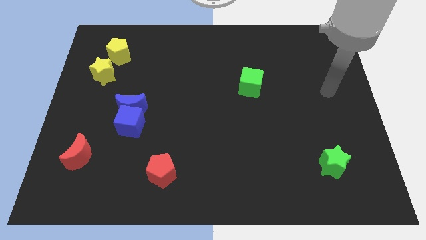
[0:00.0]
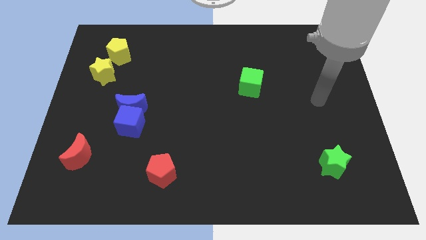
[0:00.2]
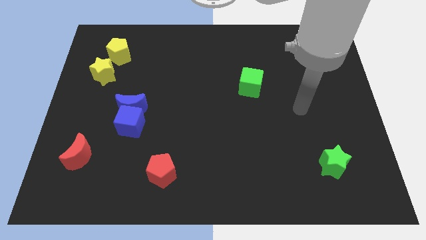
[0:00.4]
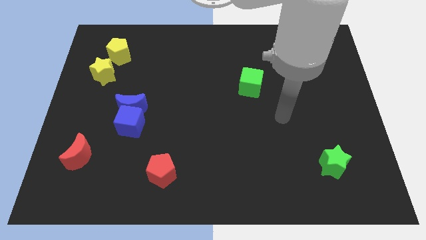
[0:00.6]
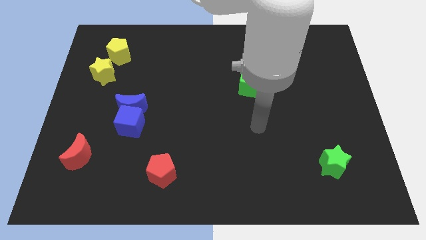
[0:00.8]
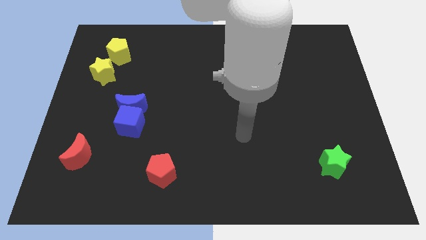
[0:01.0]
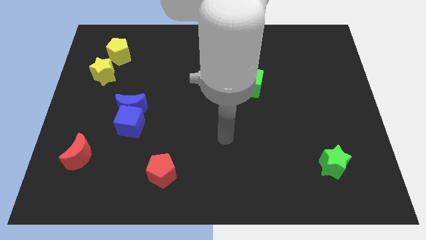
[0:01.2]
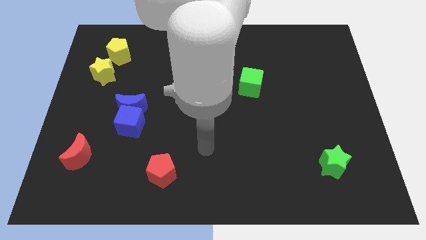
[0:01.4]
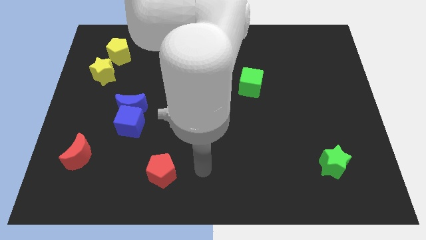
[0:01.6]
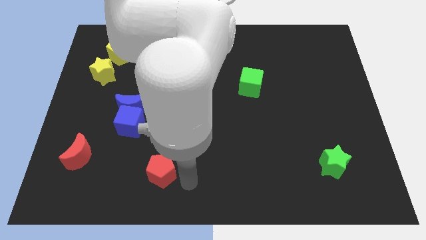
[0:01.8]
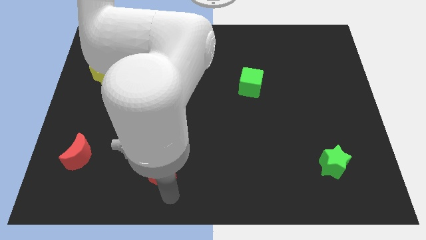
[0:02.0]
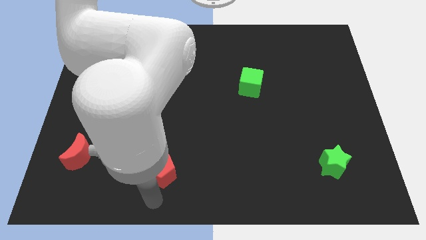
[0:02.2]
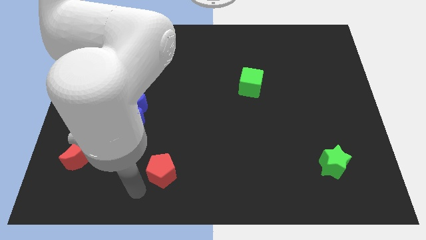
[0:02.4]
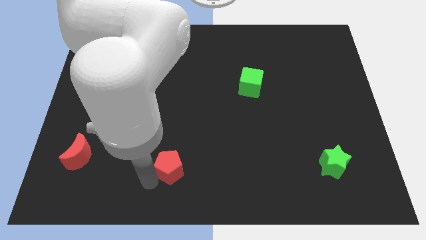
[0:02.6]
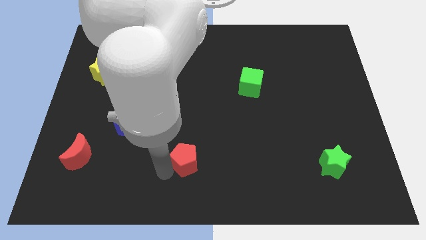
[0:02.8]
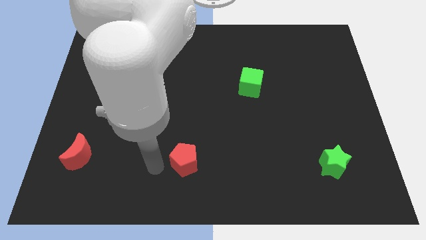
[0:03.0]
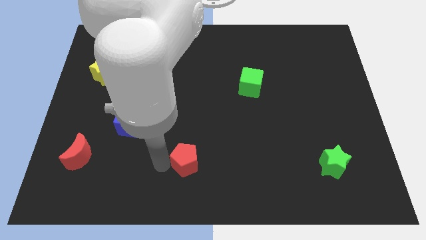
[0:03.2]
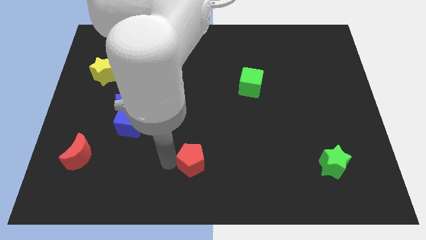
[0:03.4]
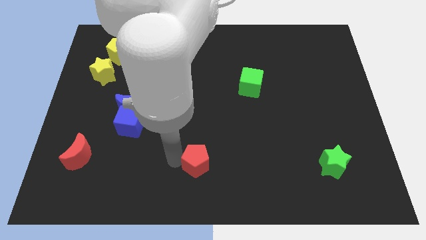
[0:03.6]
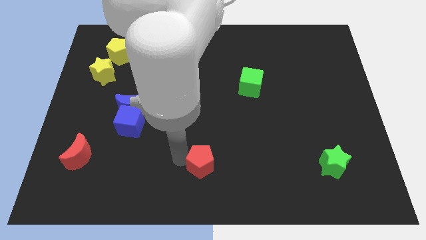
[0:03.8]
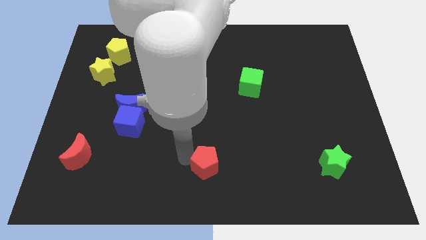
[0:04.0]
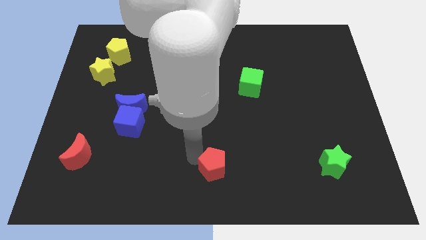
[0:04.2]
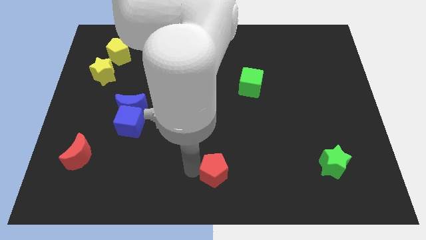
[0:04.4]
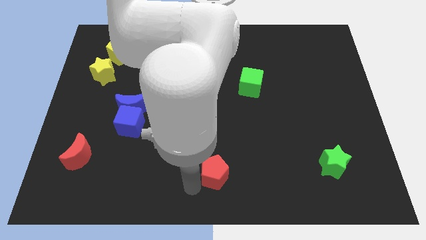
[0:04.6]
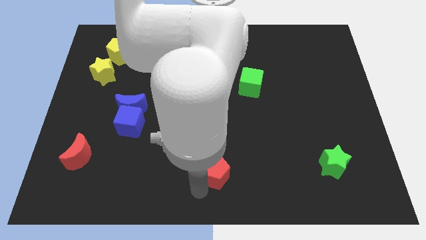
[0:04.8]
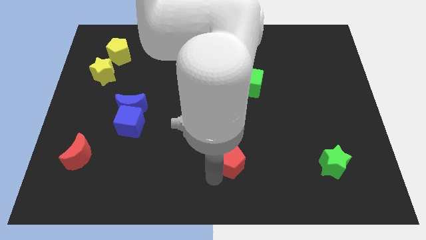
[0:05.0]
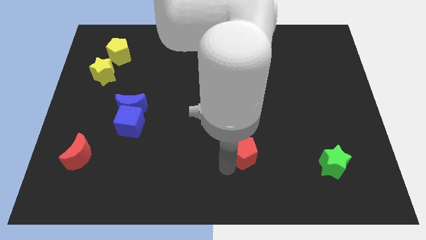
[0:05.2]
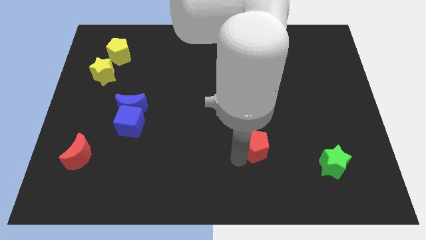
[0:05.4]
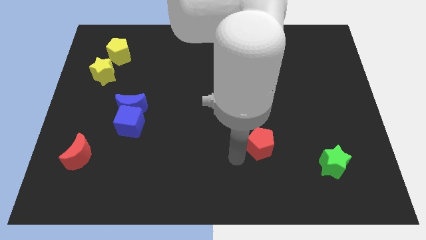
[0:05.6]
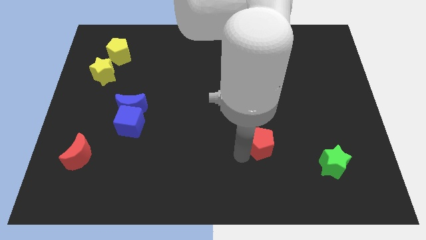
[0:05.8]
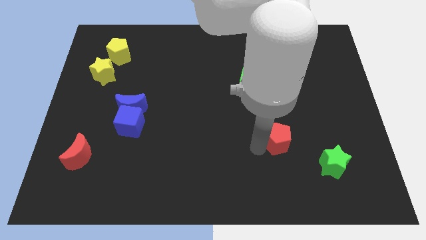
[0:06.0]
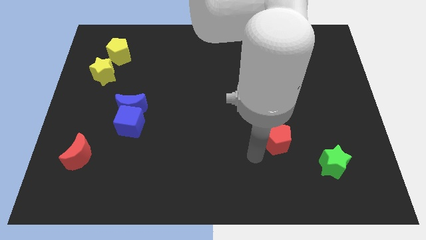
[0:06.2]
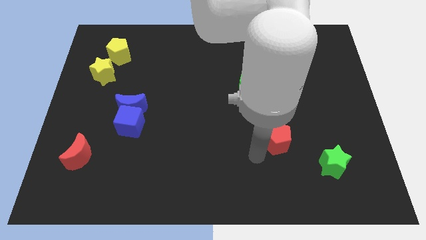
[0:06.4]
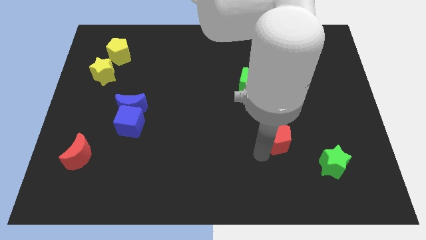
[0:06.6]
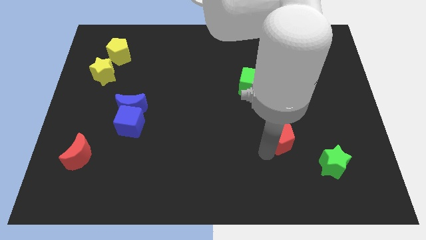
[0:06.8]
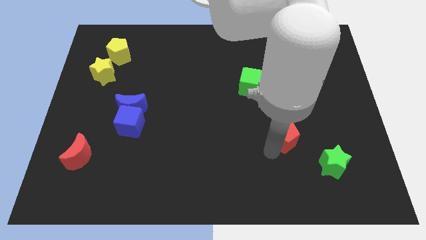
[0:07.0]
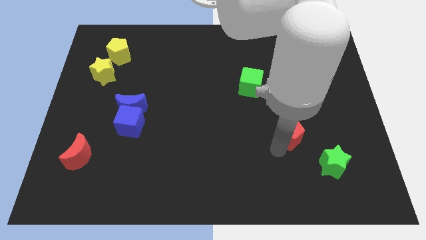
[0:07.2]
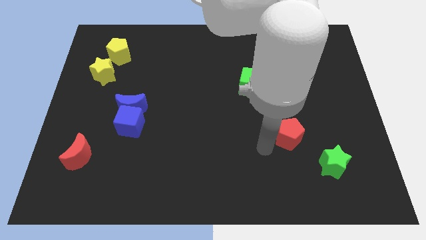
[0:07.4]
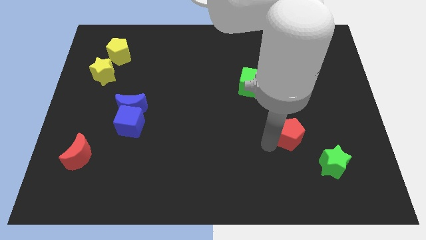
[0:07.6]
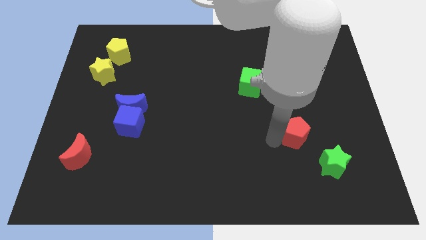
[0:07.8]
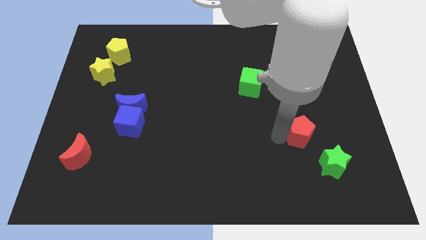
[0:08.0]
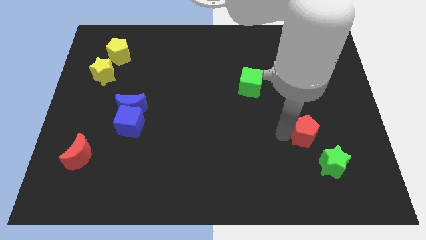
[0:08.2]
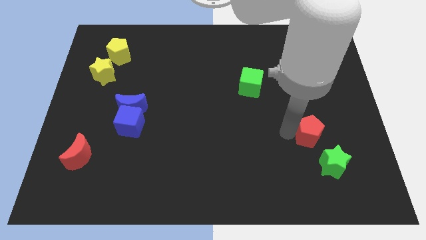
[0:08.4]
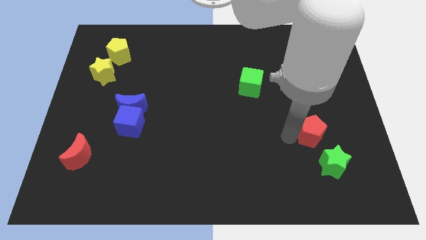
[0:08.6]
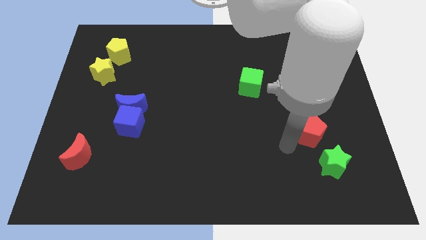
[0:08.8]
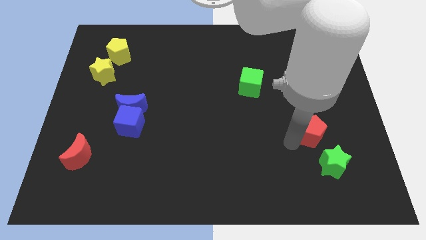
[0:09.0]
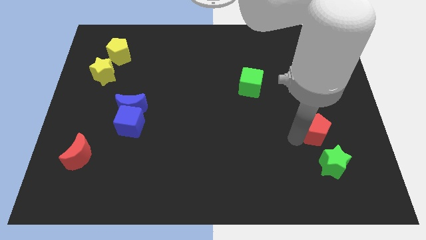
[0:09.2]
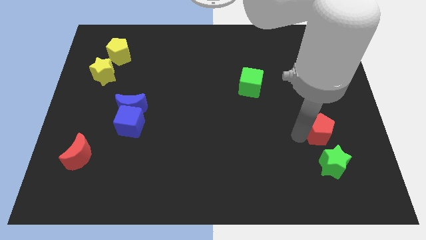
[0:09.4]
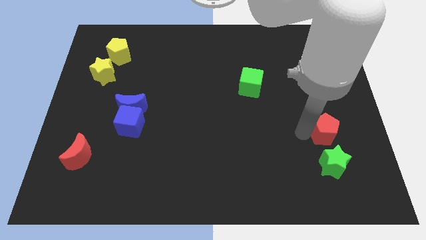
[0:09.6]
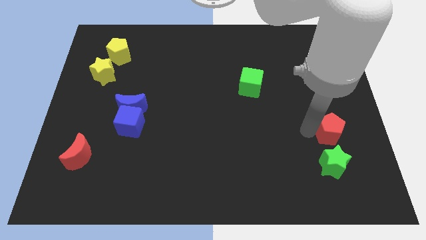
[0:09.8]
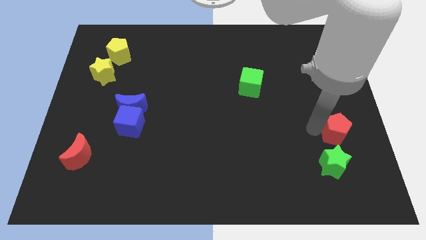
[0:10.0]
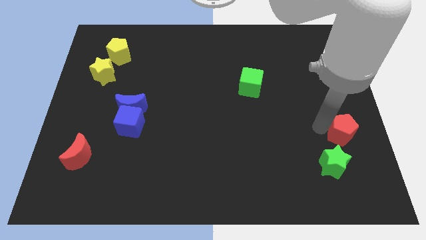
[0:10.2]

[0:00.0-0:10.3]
move the red pentagon to the right side

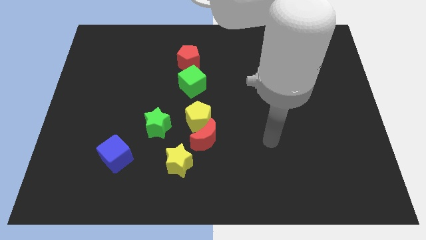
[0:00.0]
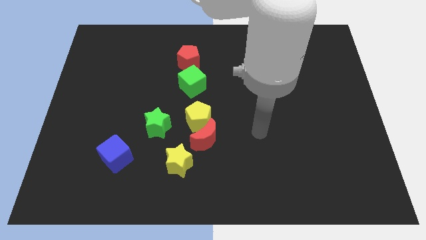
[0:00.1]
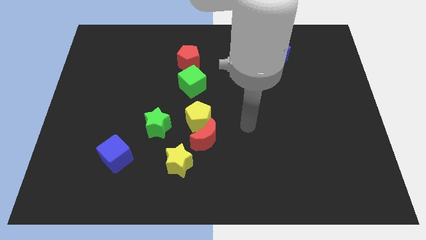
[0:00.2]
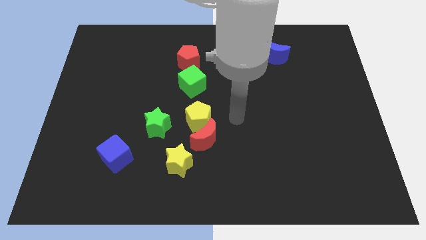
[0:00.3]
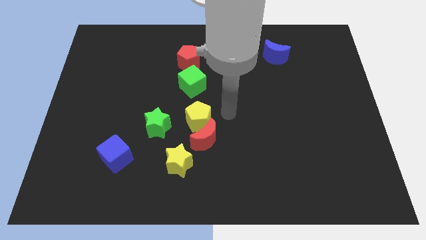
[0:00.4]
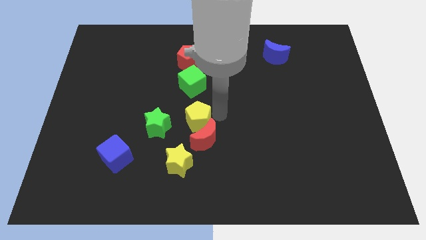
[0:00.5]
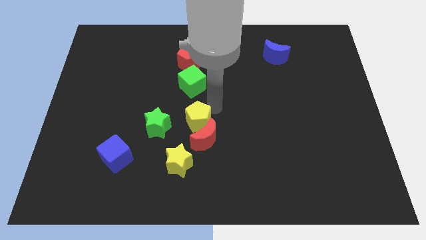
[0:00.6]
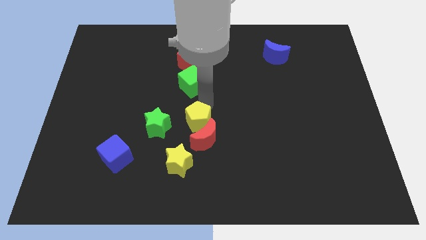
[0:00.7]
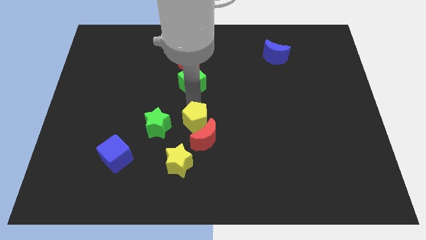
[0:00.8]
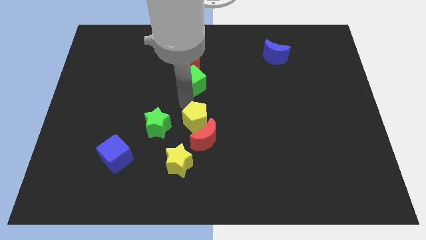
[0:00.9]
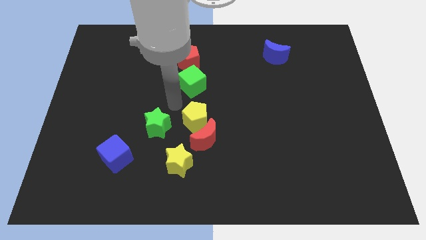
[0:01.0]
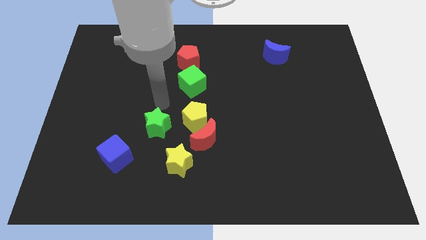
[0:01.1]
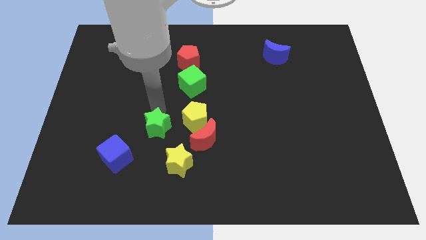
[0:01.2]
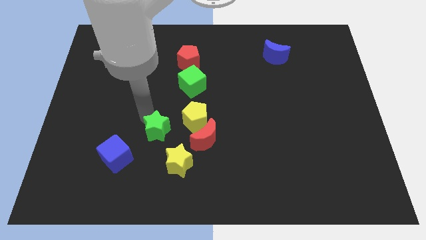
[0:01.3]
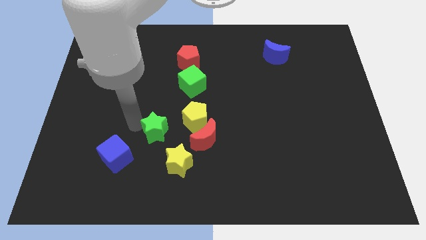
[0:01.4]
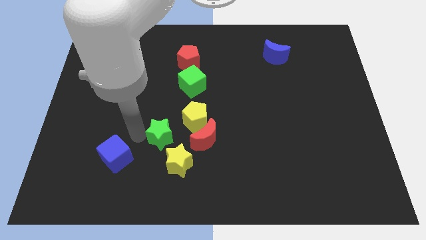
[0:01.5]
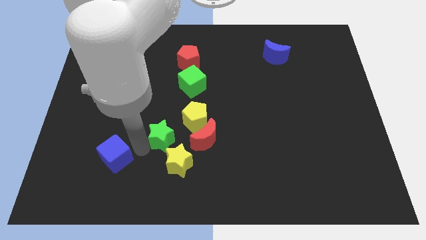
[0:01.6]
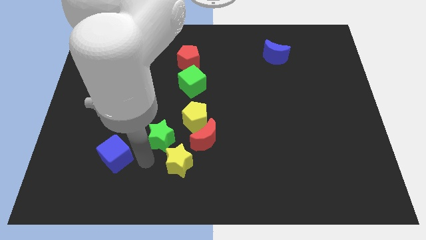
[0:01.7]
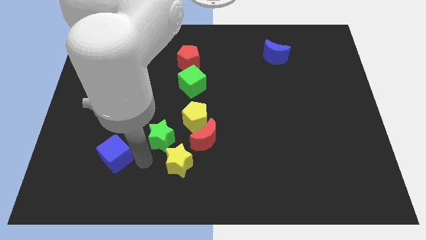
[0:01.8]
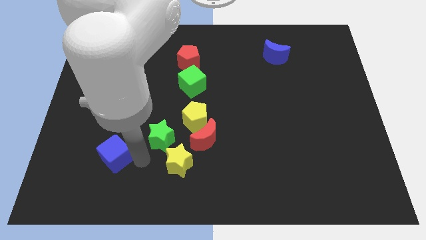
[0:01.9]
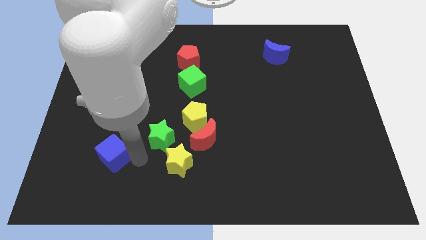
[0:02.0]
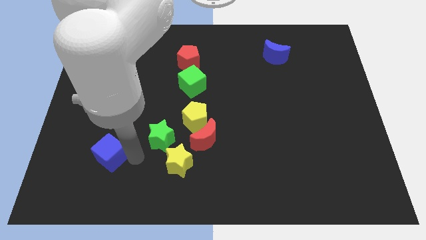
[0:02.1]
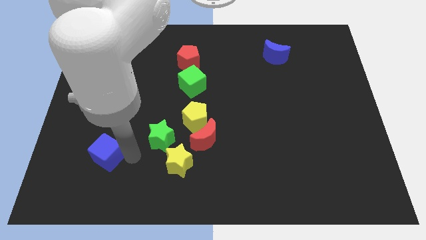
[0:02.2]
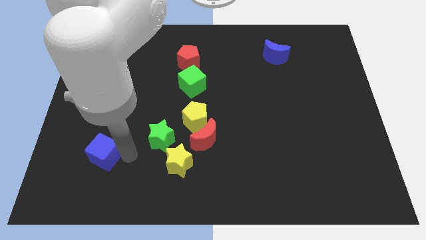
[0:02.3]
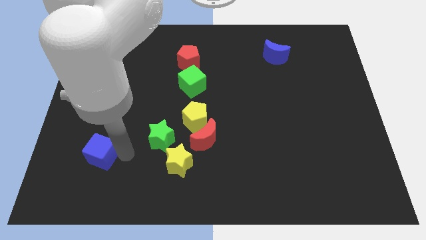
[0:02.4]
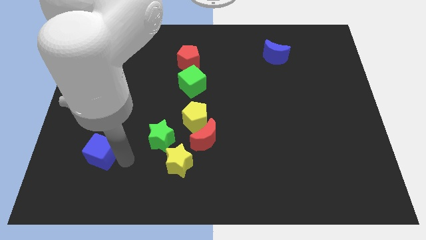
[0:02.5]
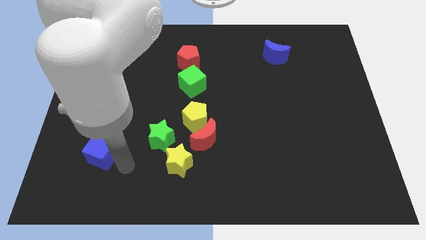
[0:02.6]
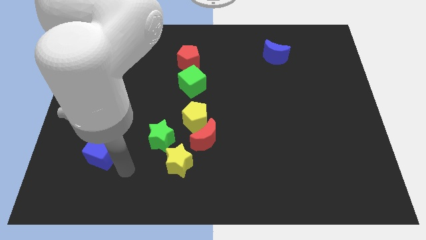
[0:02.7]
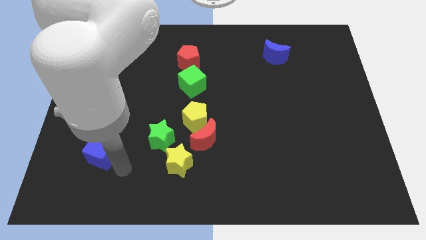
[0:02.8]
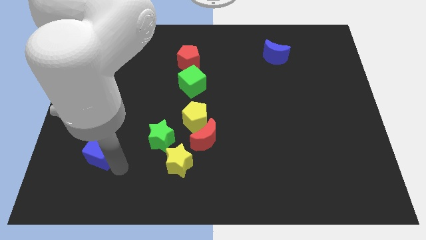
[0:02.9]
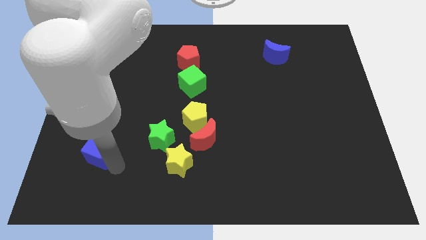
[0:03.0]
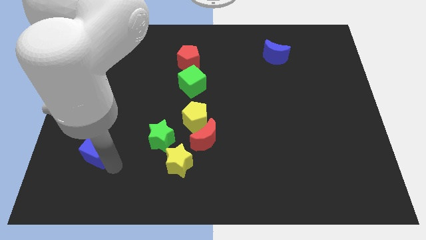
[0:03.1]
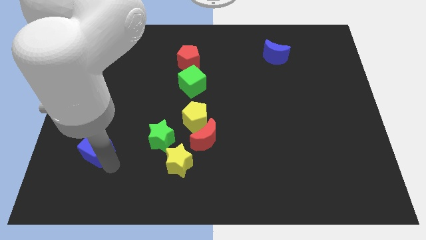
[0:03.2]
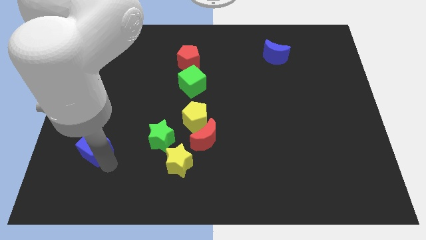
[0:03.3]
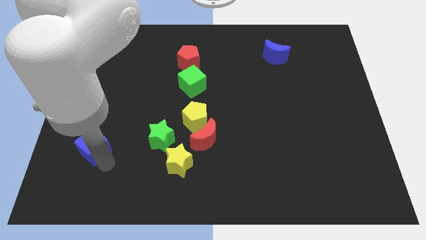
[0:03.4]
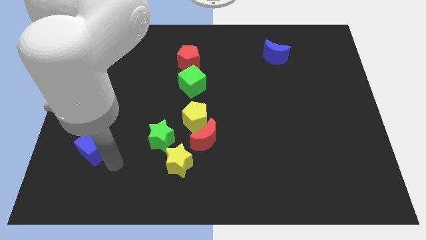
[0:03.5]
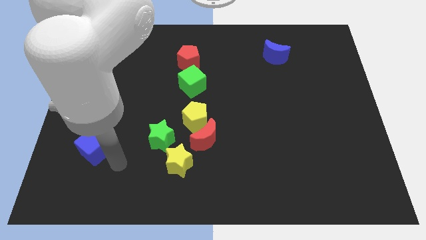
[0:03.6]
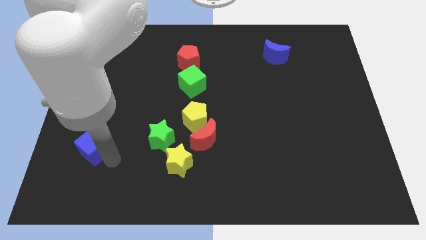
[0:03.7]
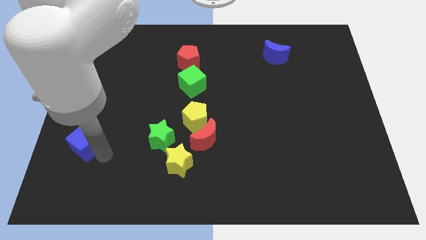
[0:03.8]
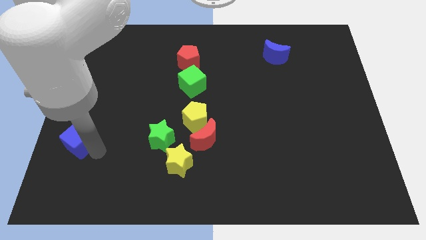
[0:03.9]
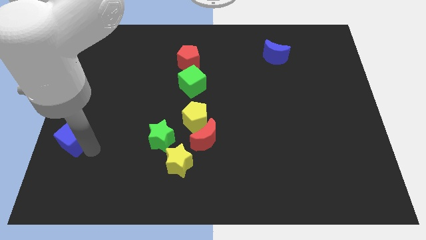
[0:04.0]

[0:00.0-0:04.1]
move the blue cube to the left side
